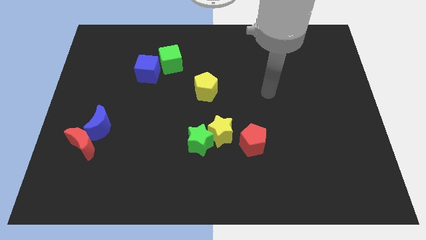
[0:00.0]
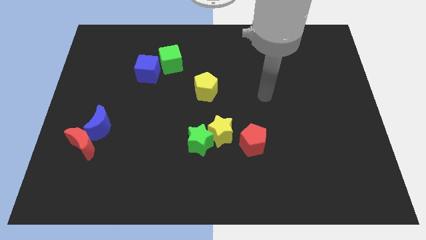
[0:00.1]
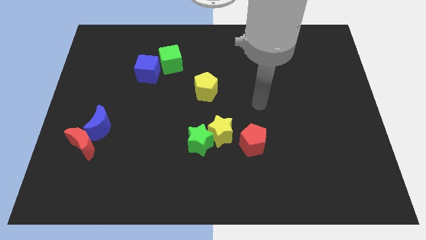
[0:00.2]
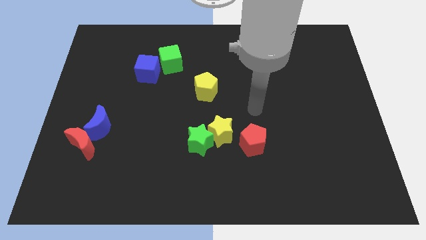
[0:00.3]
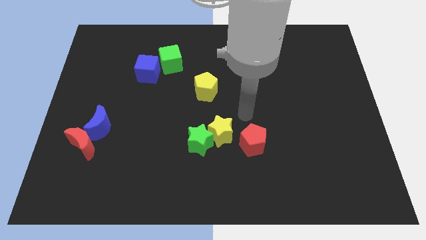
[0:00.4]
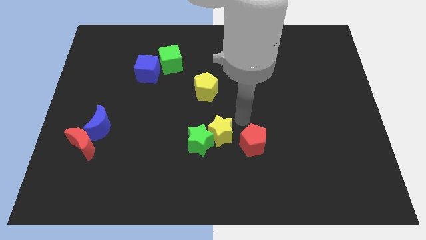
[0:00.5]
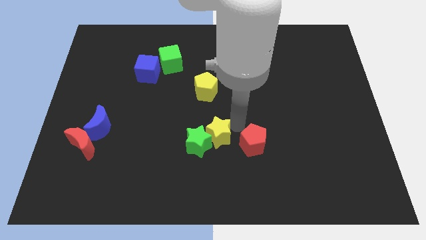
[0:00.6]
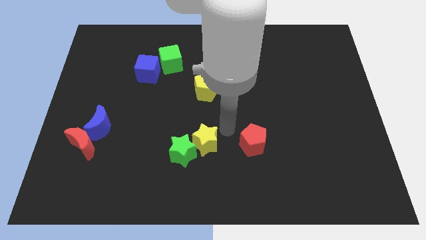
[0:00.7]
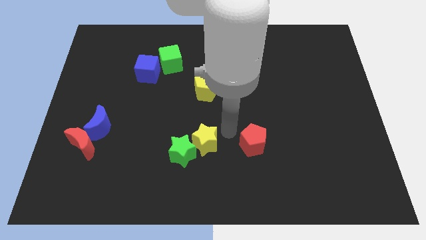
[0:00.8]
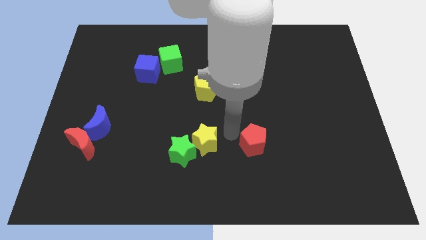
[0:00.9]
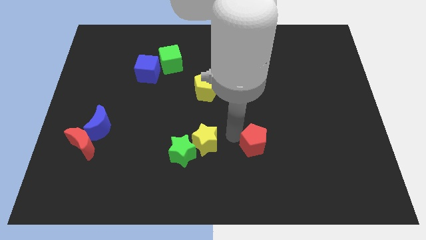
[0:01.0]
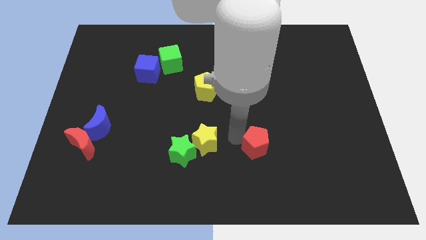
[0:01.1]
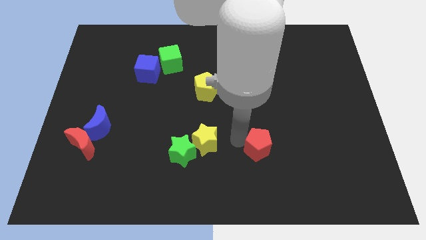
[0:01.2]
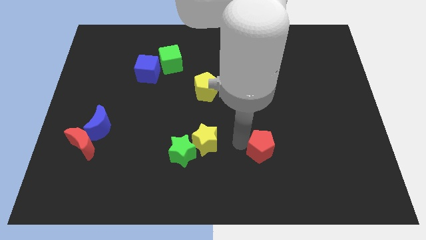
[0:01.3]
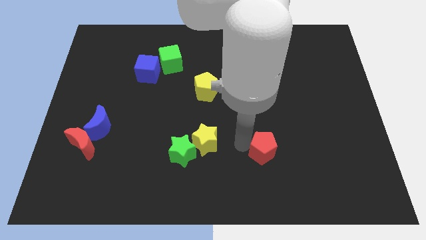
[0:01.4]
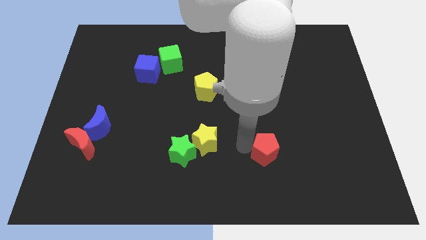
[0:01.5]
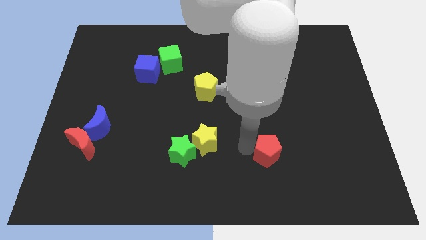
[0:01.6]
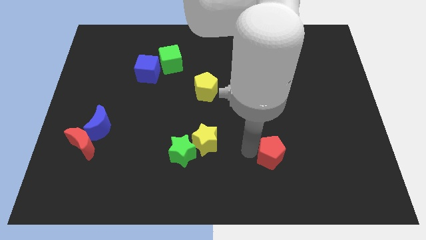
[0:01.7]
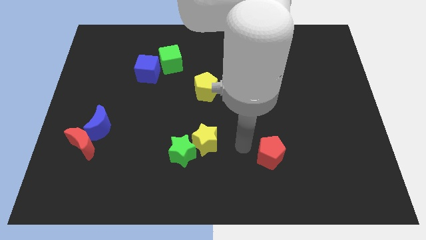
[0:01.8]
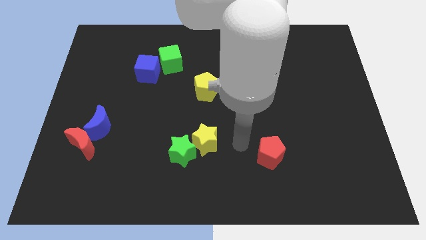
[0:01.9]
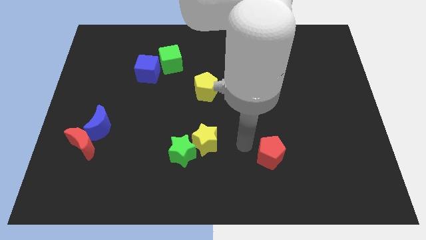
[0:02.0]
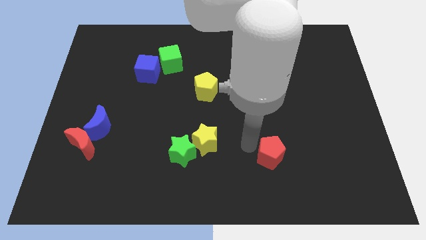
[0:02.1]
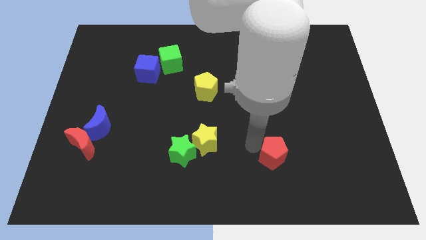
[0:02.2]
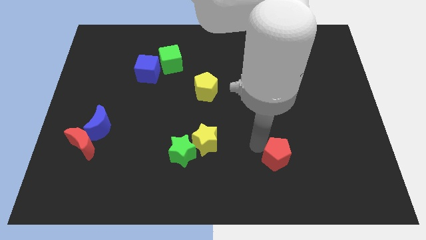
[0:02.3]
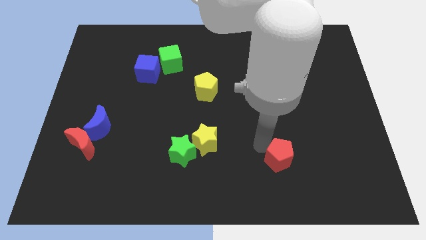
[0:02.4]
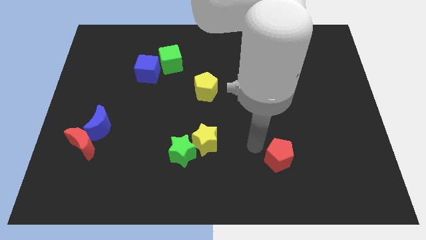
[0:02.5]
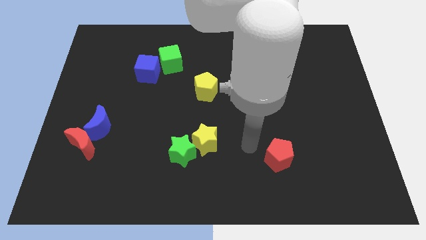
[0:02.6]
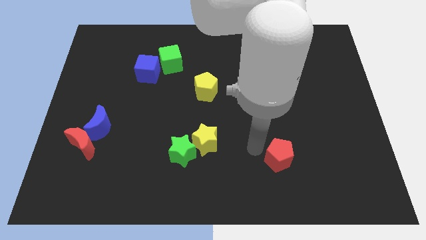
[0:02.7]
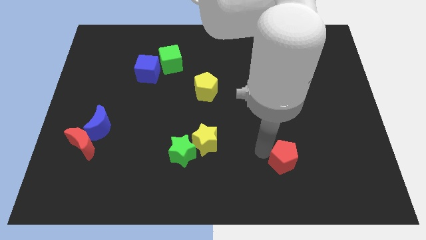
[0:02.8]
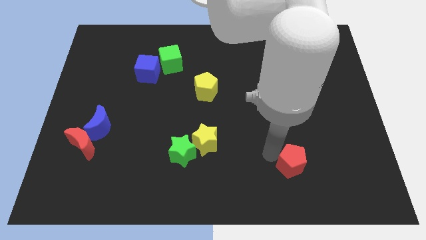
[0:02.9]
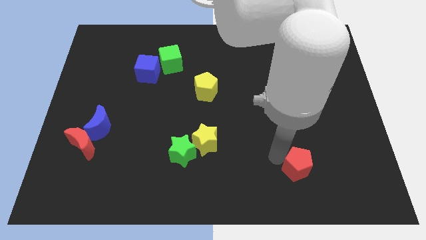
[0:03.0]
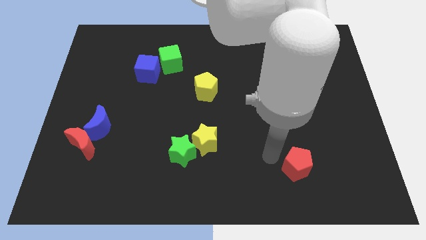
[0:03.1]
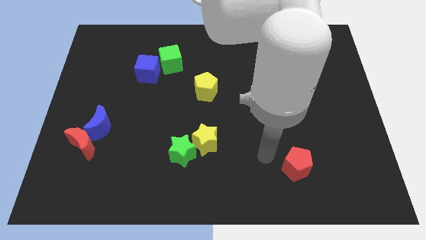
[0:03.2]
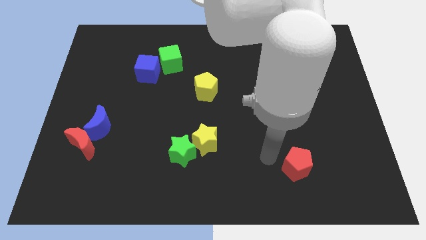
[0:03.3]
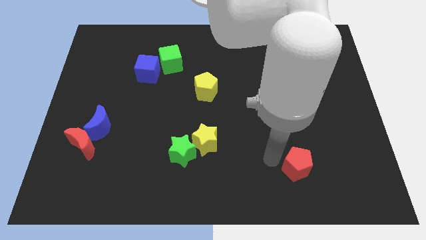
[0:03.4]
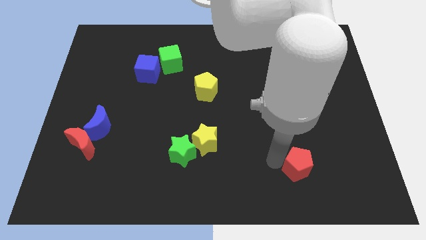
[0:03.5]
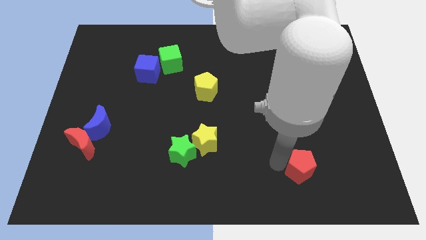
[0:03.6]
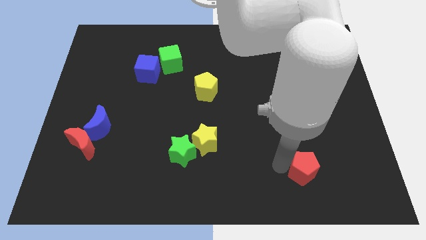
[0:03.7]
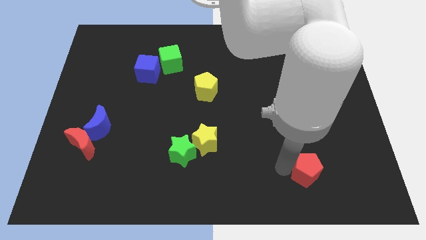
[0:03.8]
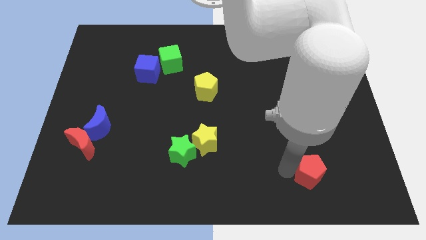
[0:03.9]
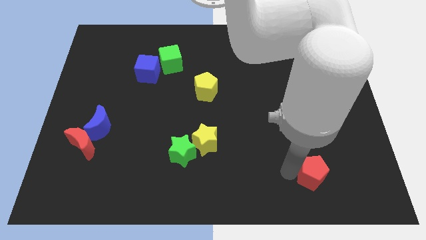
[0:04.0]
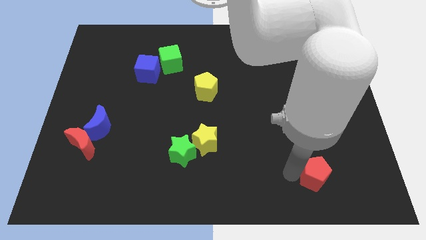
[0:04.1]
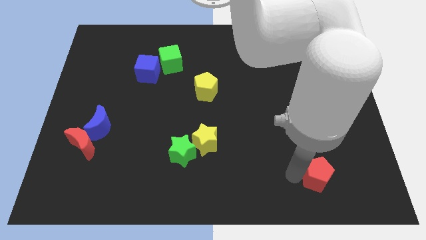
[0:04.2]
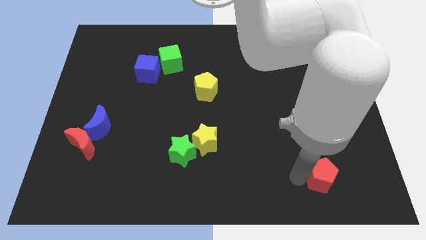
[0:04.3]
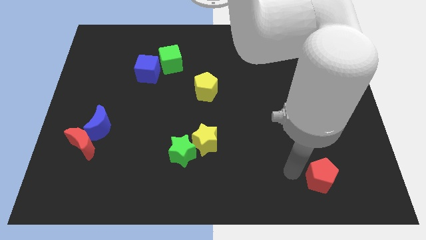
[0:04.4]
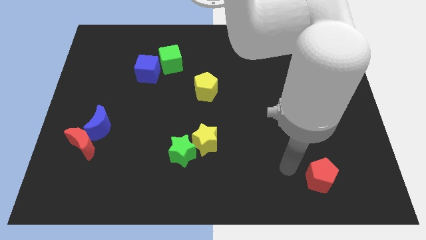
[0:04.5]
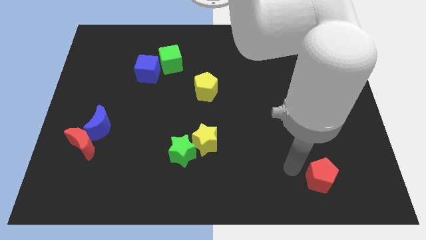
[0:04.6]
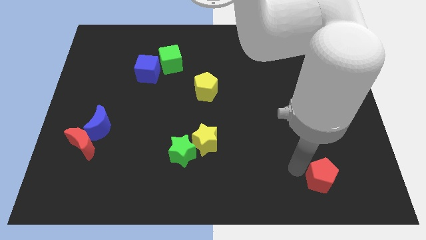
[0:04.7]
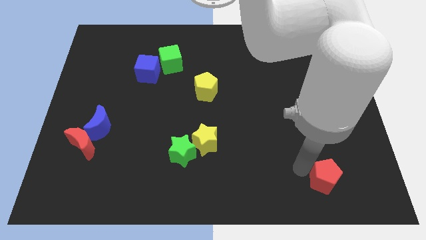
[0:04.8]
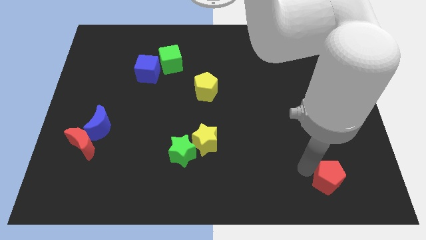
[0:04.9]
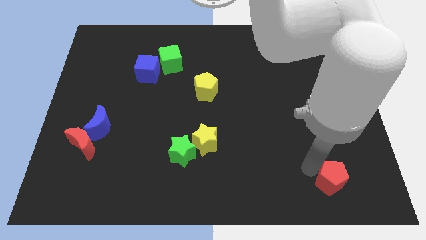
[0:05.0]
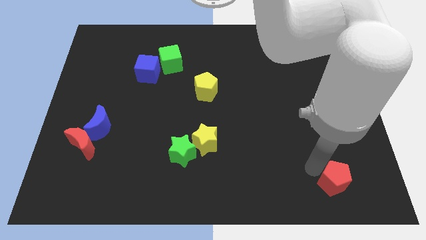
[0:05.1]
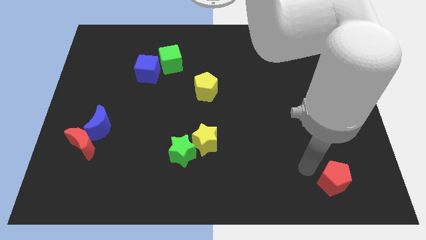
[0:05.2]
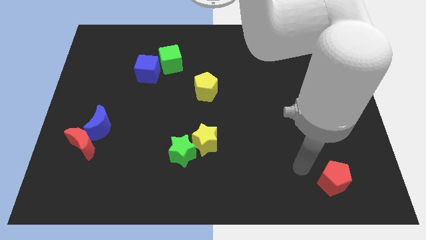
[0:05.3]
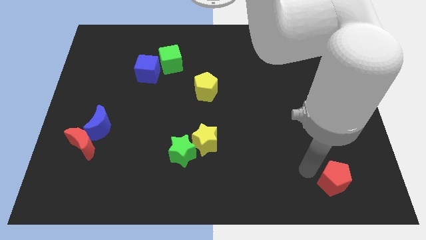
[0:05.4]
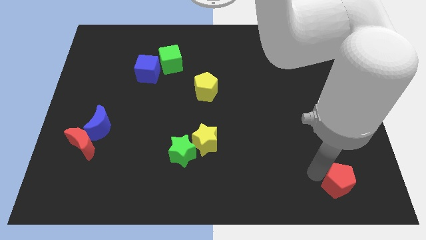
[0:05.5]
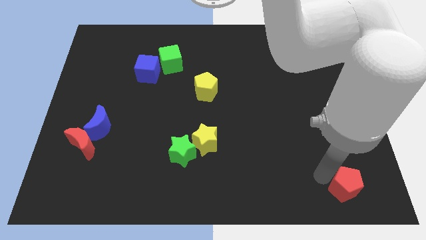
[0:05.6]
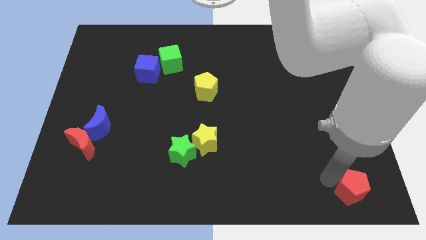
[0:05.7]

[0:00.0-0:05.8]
push the red pentagon to the lower right corner

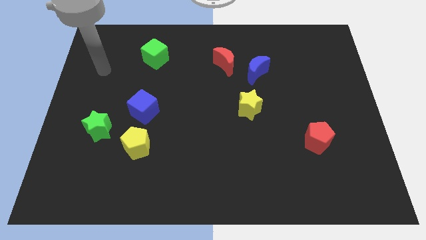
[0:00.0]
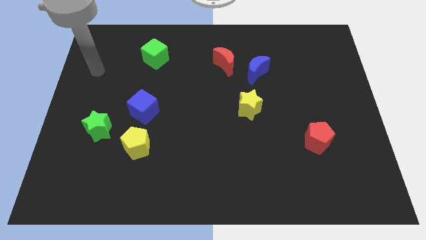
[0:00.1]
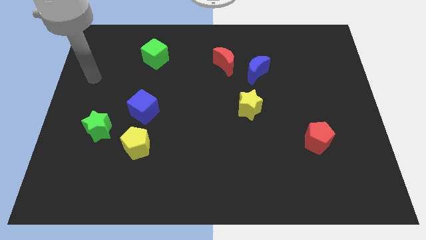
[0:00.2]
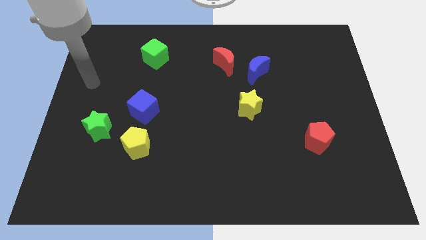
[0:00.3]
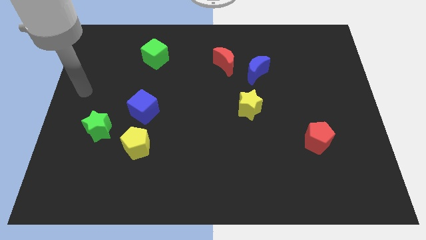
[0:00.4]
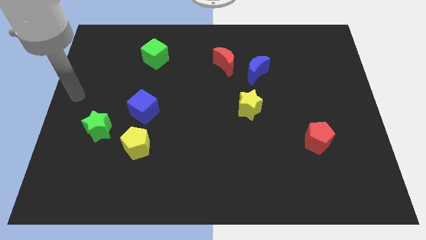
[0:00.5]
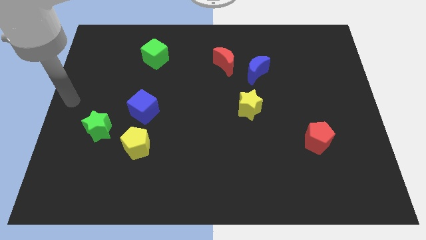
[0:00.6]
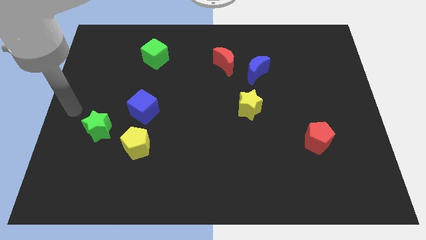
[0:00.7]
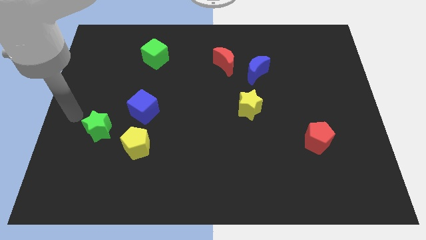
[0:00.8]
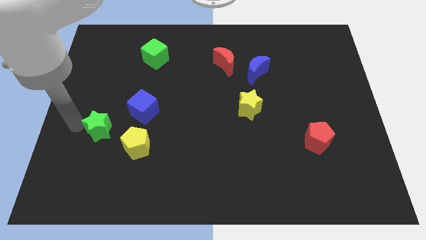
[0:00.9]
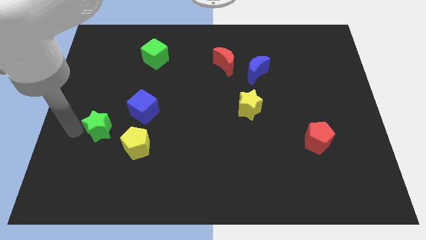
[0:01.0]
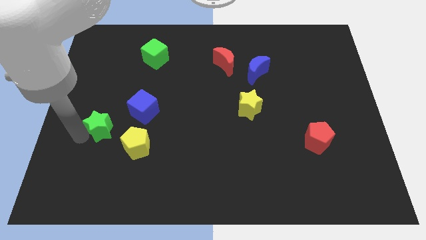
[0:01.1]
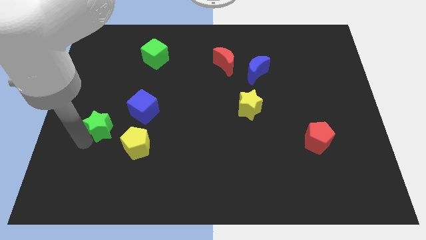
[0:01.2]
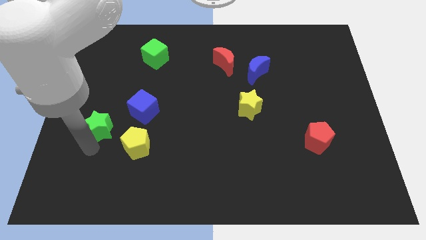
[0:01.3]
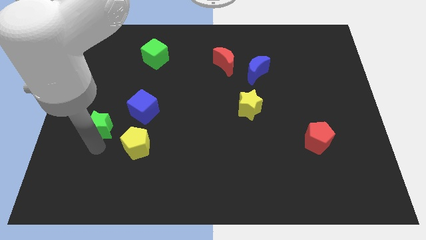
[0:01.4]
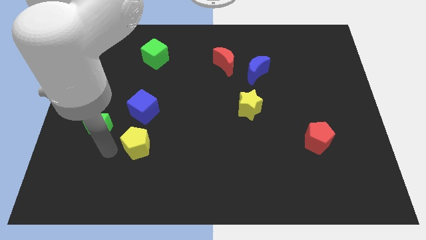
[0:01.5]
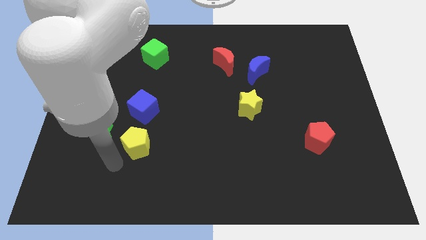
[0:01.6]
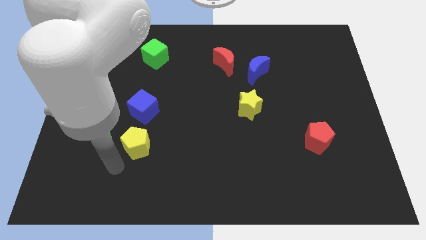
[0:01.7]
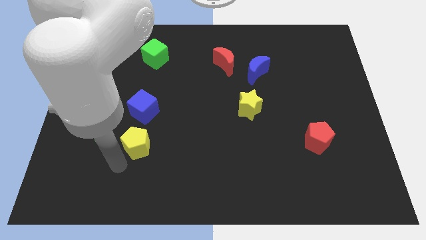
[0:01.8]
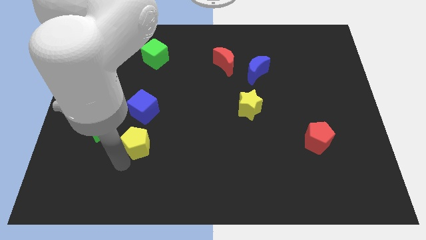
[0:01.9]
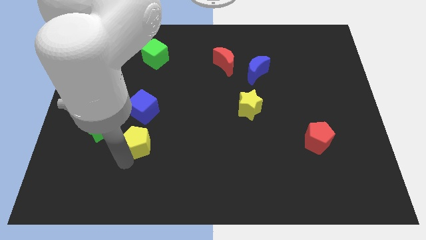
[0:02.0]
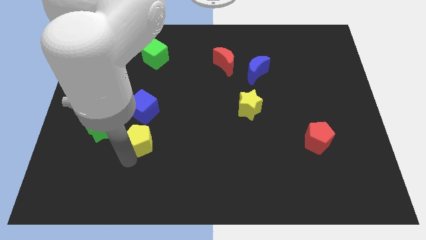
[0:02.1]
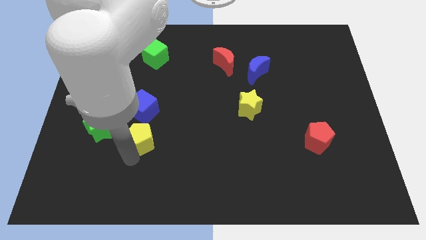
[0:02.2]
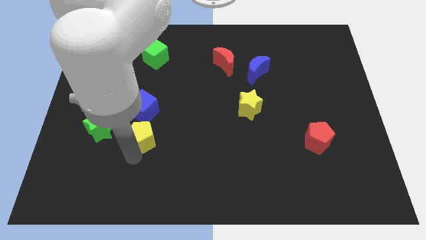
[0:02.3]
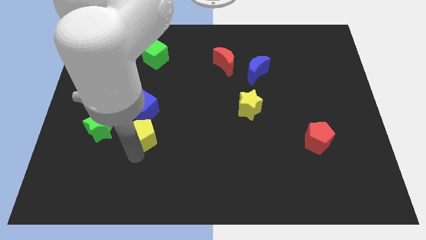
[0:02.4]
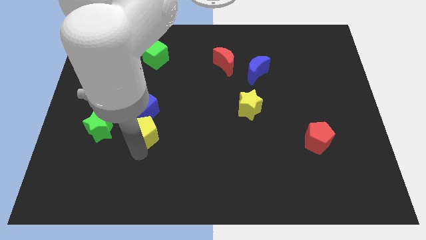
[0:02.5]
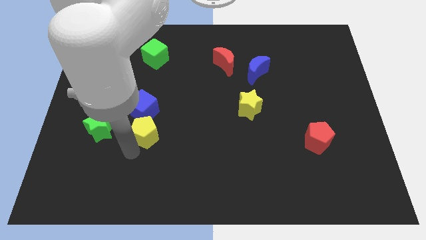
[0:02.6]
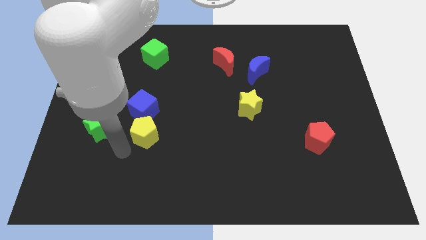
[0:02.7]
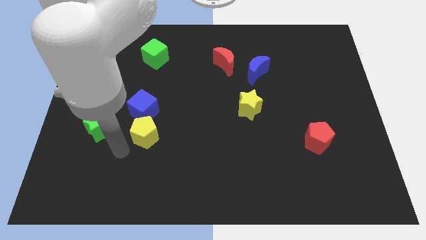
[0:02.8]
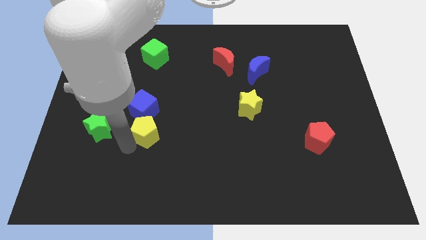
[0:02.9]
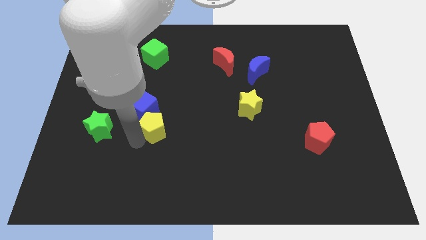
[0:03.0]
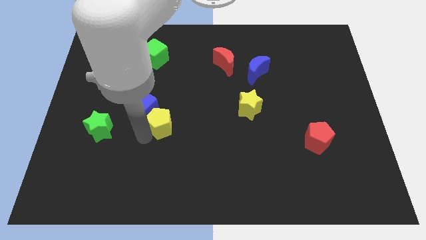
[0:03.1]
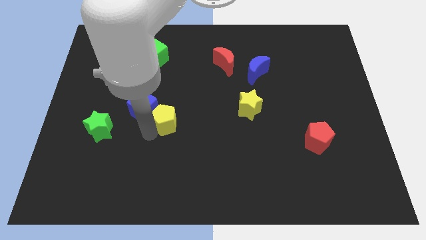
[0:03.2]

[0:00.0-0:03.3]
slide the yellow pentagon to the center
